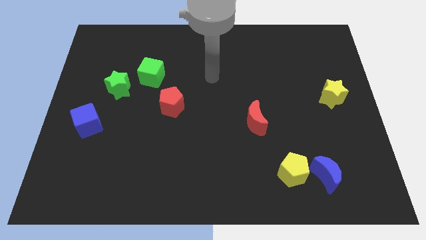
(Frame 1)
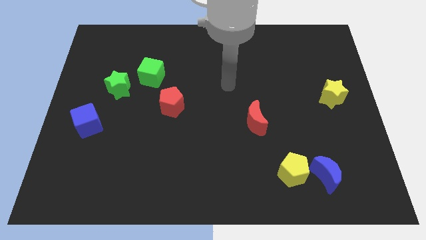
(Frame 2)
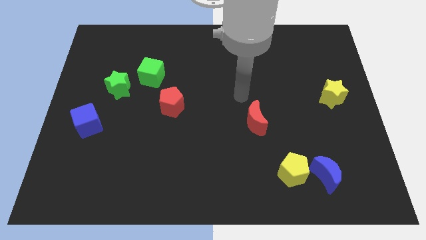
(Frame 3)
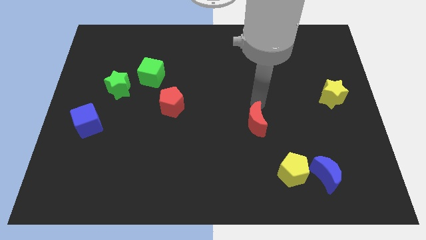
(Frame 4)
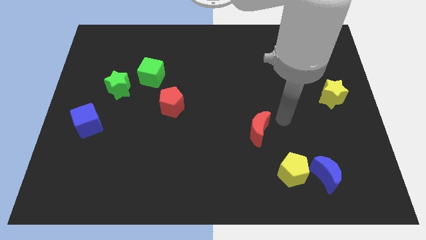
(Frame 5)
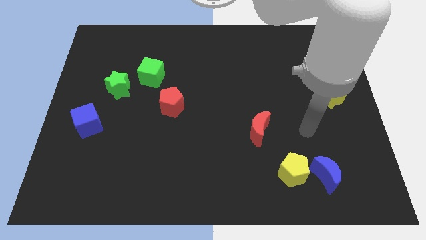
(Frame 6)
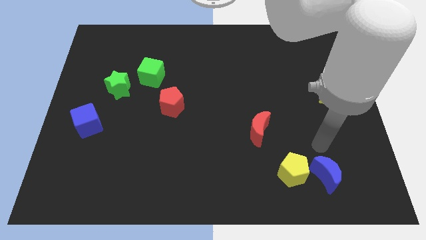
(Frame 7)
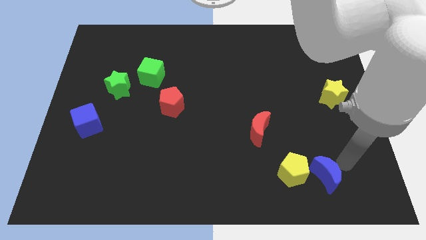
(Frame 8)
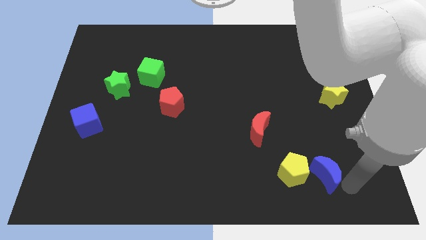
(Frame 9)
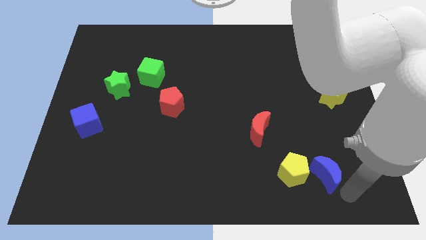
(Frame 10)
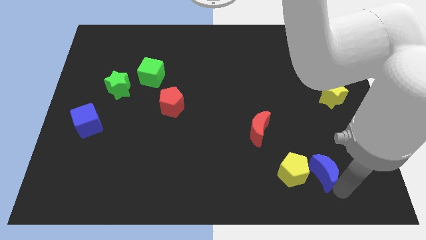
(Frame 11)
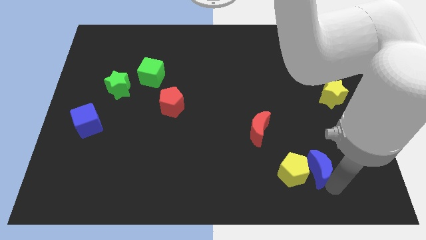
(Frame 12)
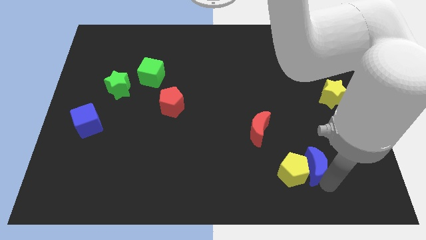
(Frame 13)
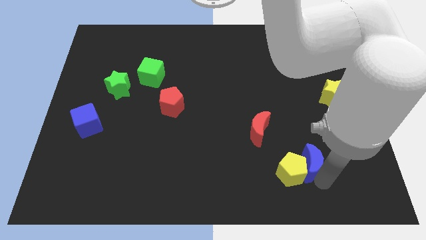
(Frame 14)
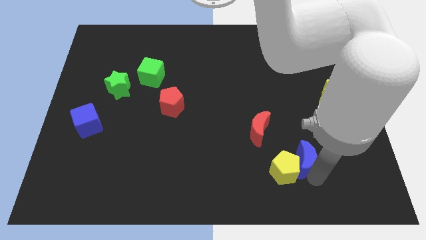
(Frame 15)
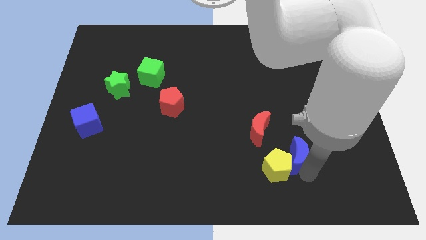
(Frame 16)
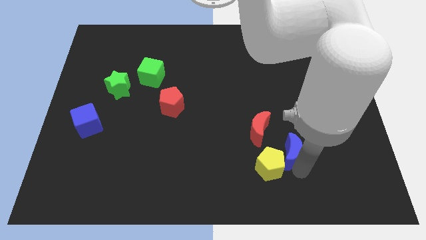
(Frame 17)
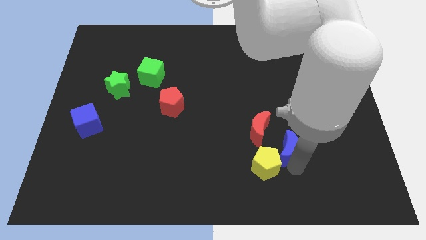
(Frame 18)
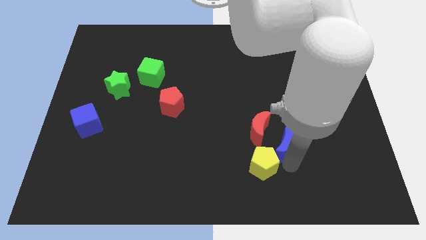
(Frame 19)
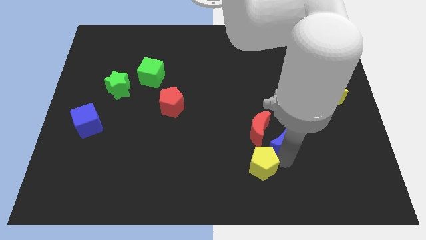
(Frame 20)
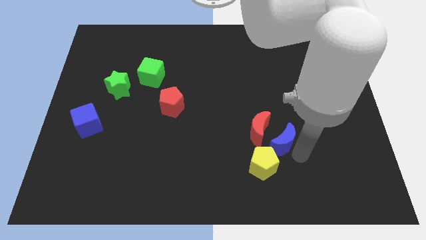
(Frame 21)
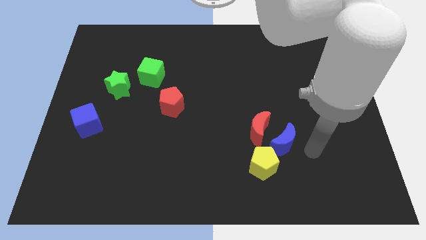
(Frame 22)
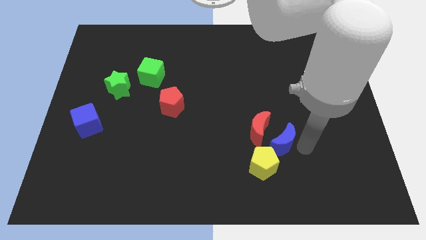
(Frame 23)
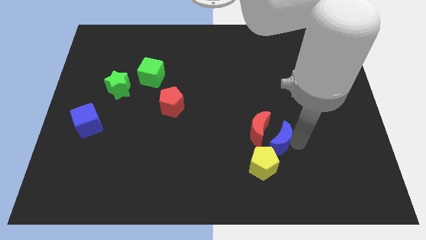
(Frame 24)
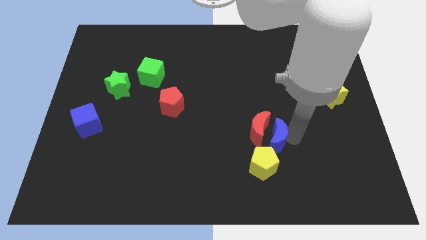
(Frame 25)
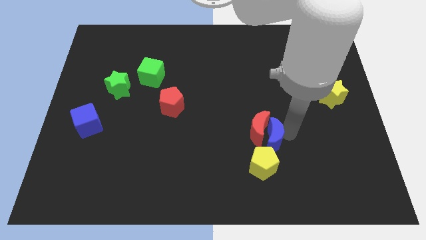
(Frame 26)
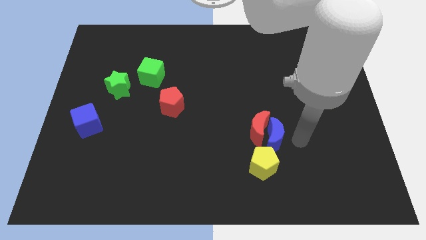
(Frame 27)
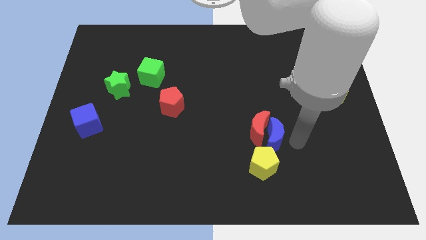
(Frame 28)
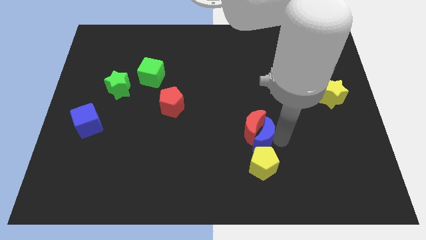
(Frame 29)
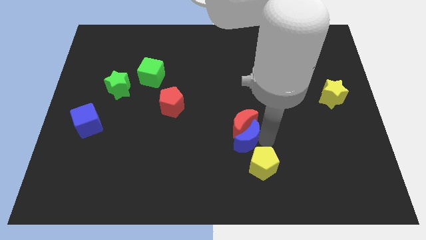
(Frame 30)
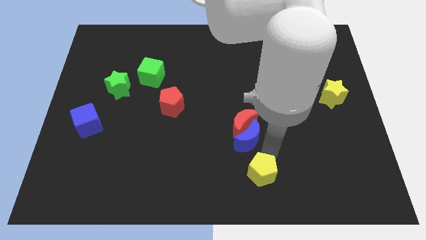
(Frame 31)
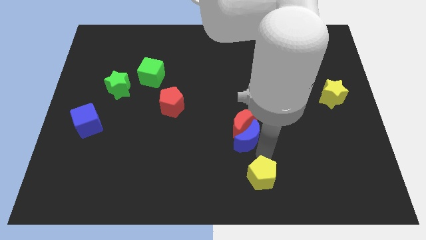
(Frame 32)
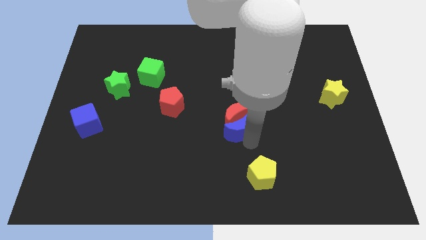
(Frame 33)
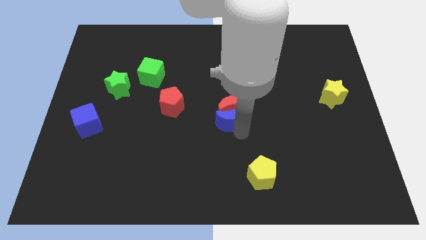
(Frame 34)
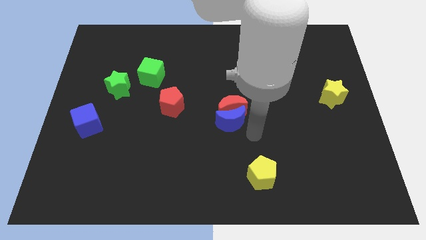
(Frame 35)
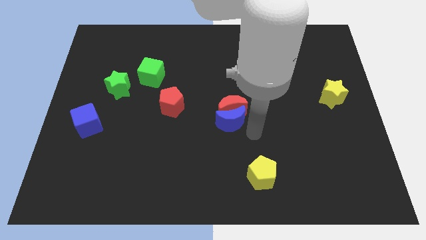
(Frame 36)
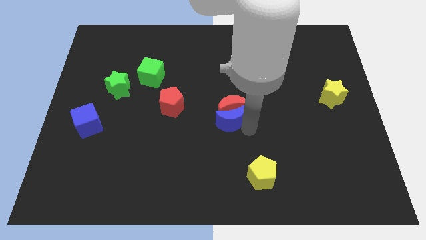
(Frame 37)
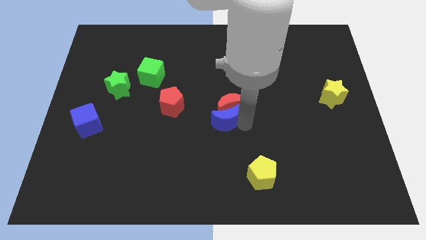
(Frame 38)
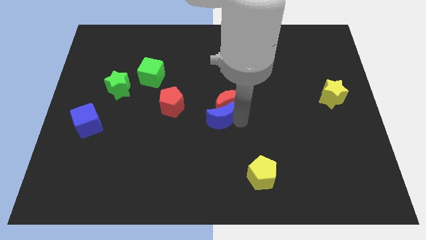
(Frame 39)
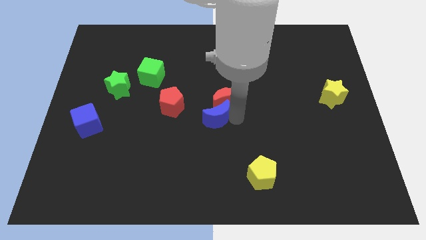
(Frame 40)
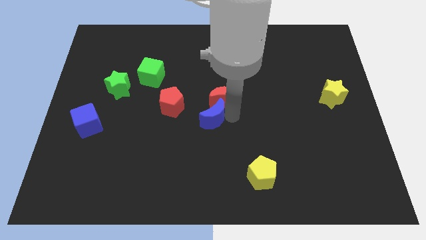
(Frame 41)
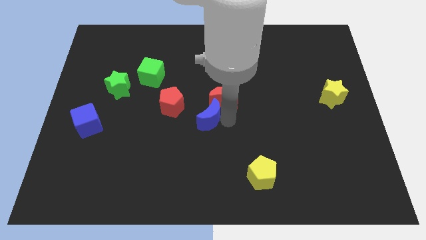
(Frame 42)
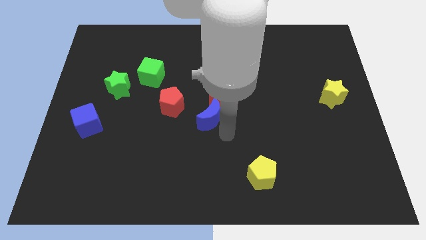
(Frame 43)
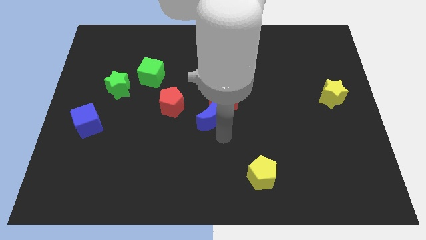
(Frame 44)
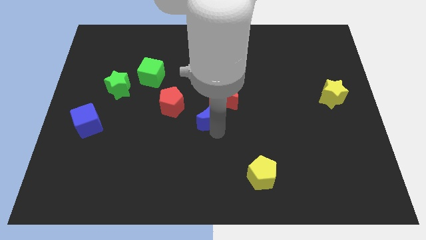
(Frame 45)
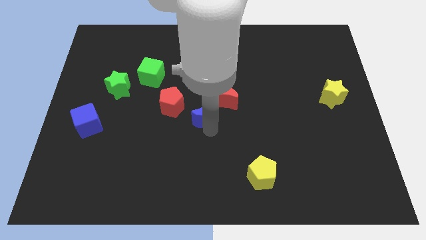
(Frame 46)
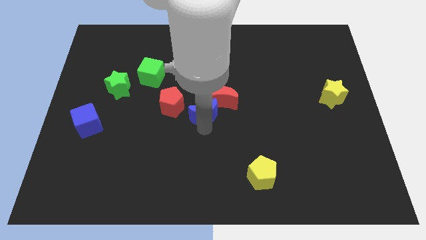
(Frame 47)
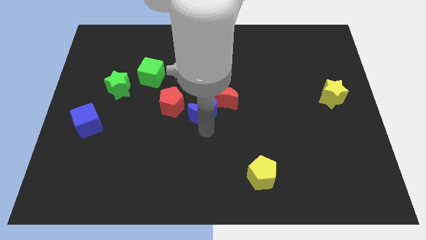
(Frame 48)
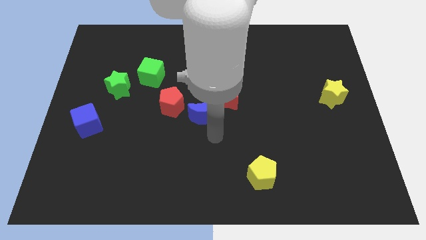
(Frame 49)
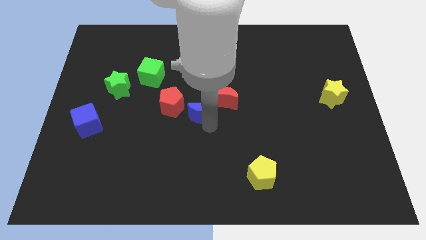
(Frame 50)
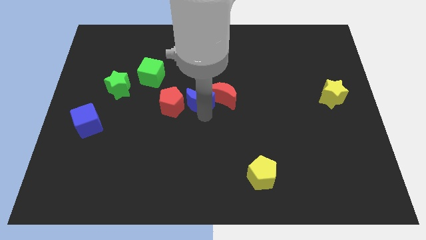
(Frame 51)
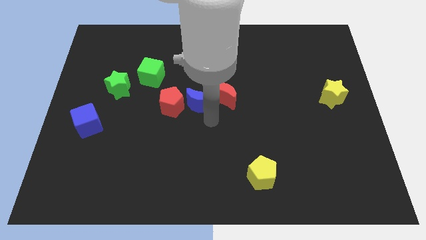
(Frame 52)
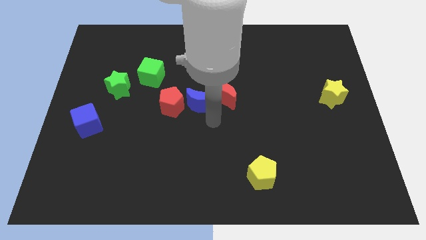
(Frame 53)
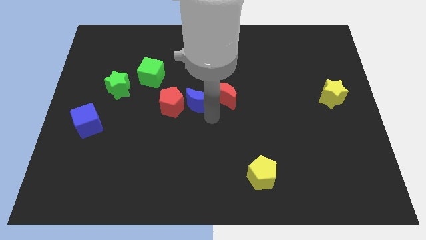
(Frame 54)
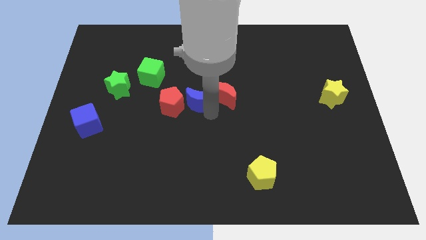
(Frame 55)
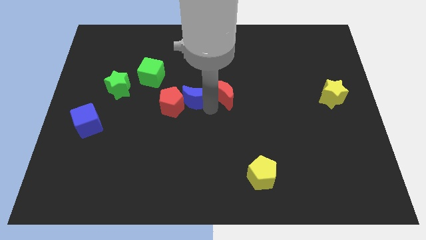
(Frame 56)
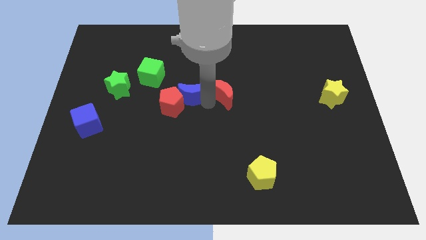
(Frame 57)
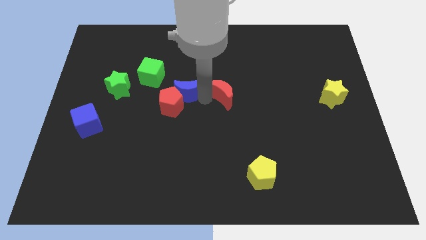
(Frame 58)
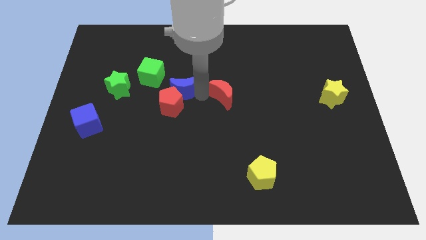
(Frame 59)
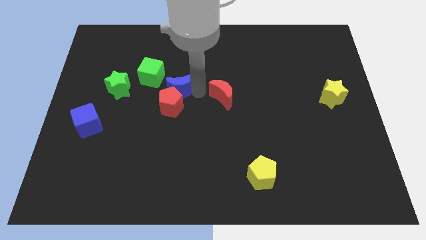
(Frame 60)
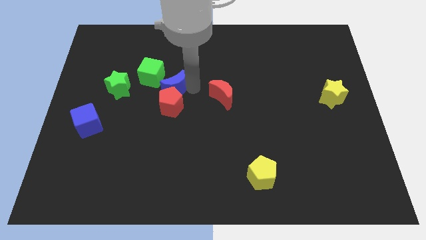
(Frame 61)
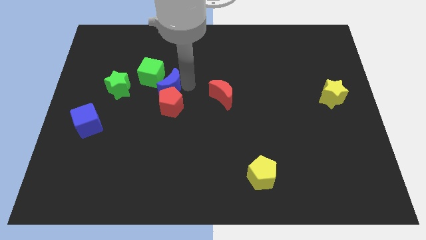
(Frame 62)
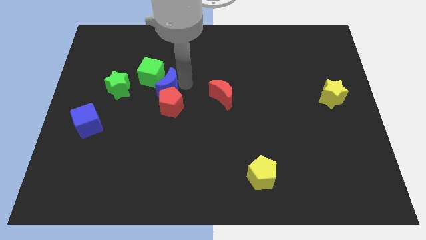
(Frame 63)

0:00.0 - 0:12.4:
move the blue moon towards the green cube
